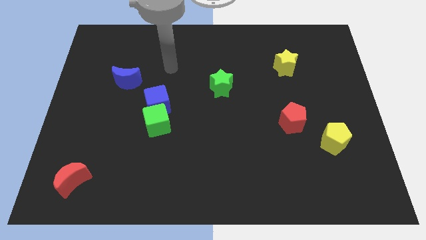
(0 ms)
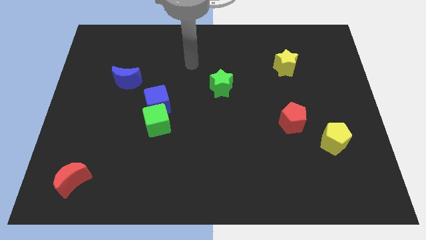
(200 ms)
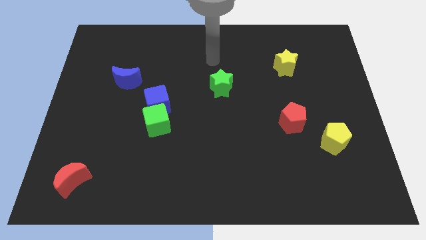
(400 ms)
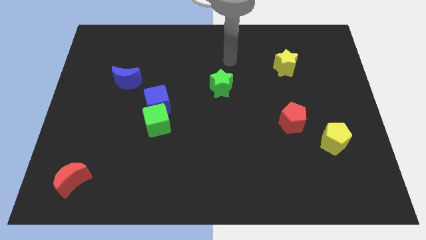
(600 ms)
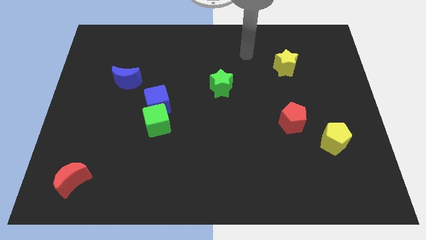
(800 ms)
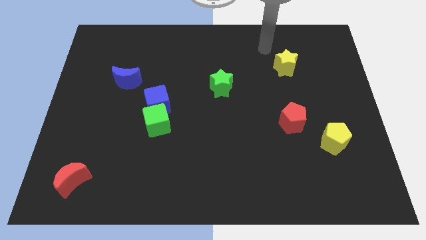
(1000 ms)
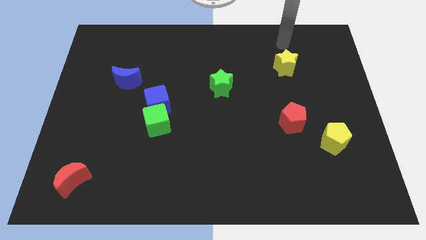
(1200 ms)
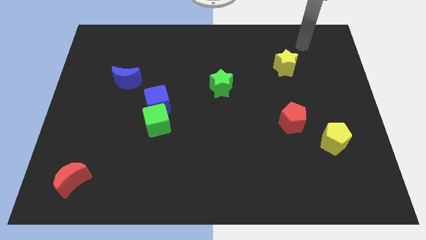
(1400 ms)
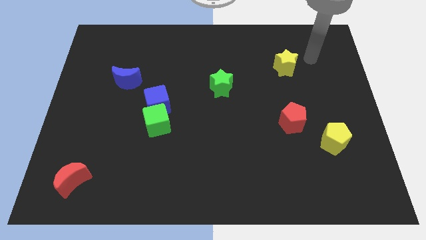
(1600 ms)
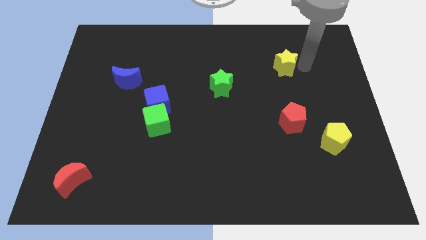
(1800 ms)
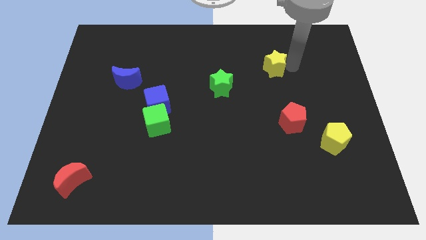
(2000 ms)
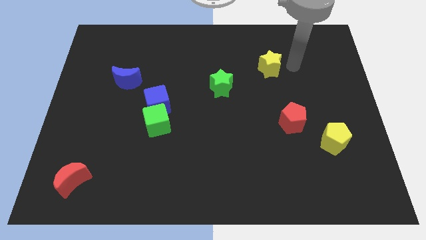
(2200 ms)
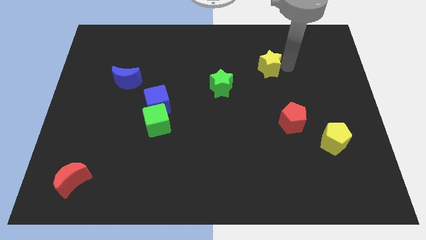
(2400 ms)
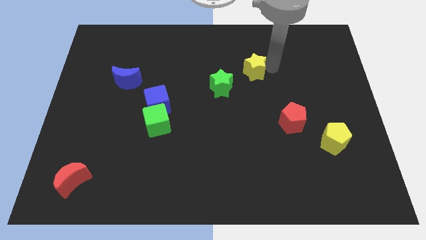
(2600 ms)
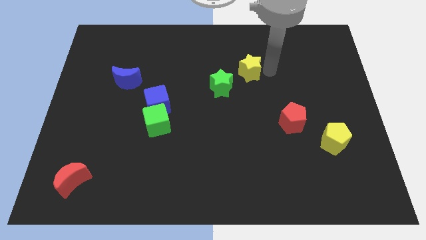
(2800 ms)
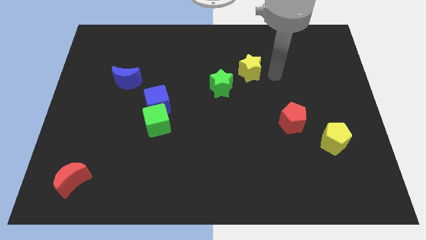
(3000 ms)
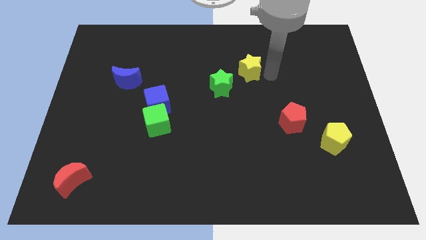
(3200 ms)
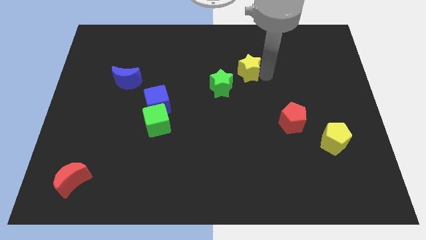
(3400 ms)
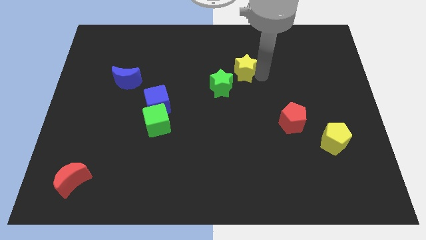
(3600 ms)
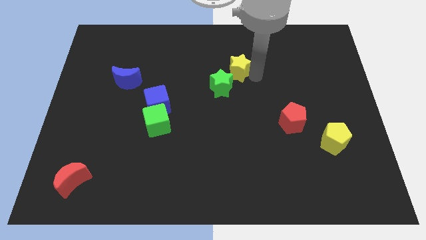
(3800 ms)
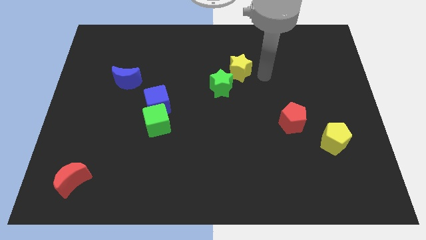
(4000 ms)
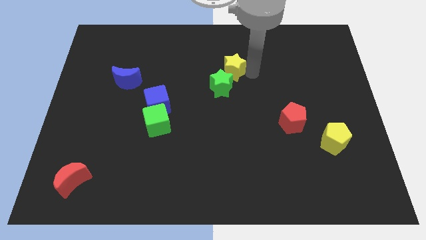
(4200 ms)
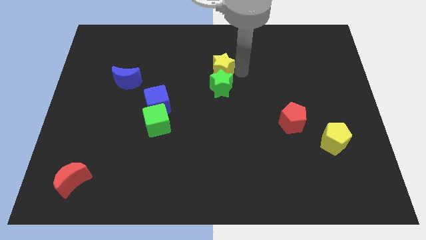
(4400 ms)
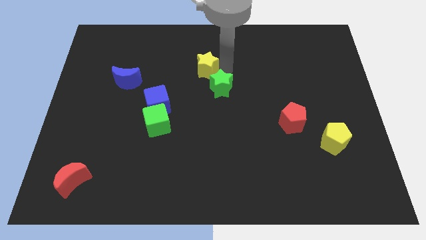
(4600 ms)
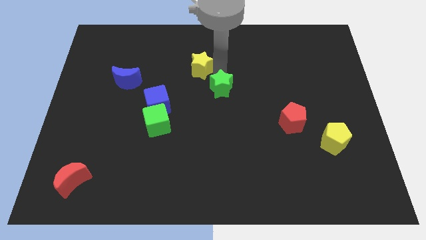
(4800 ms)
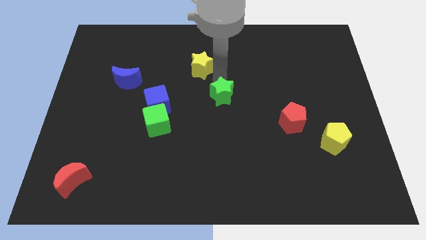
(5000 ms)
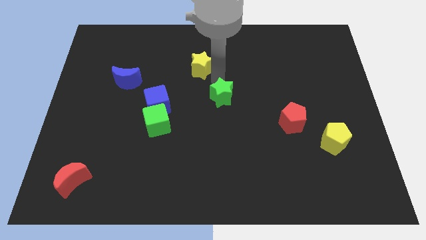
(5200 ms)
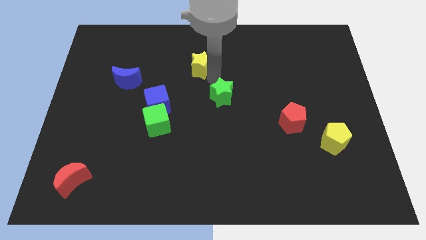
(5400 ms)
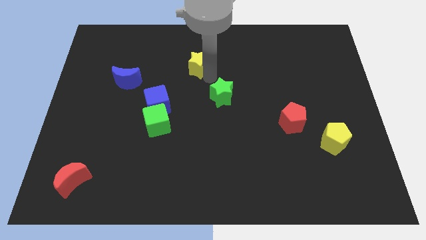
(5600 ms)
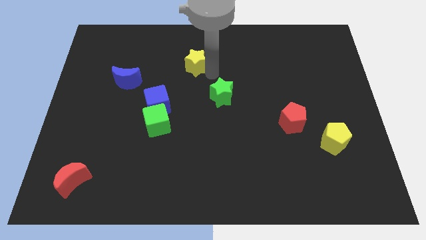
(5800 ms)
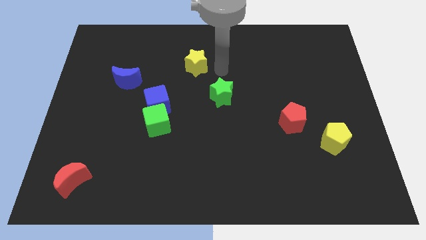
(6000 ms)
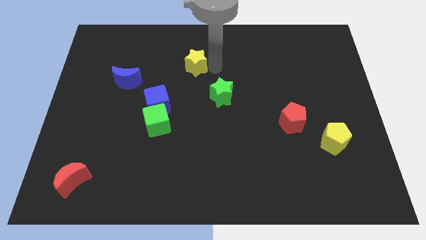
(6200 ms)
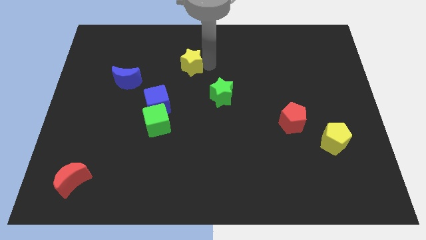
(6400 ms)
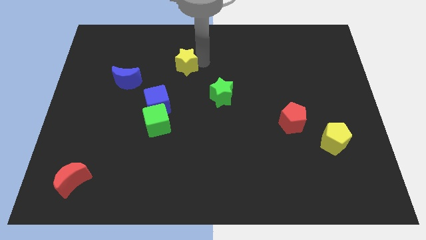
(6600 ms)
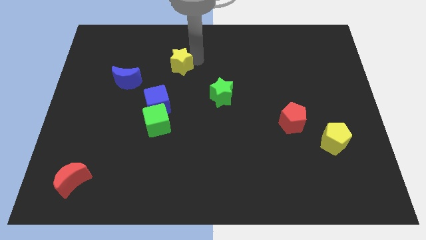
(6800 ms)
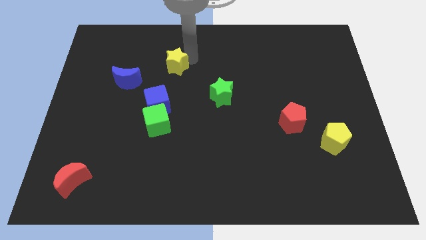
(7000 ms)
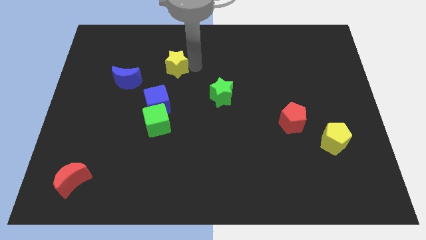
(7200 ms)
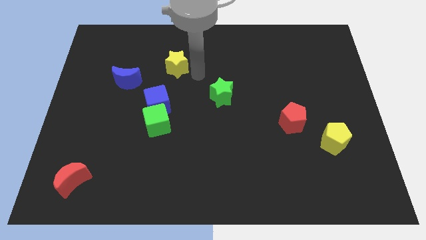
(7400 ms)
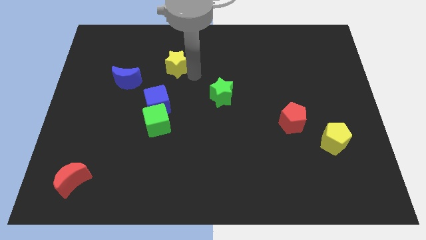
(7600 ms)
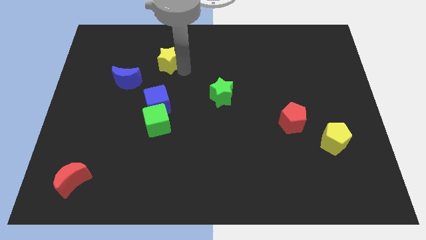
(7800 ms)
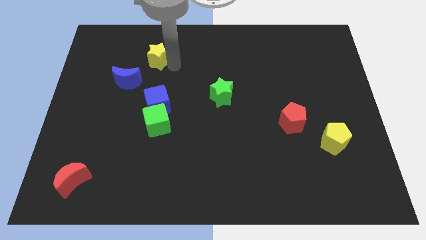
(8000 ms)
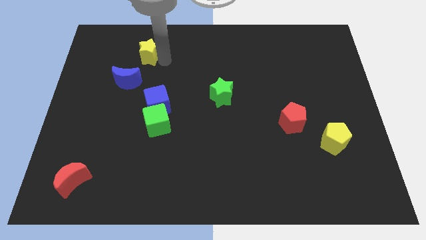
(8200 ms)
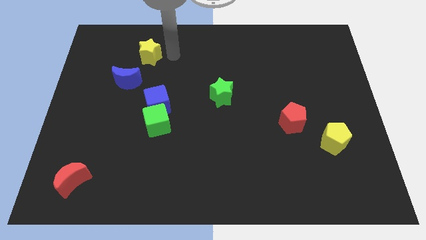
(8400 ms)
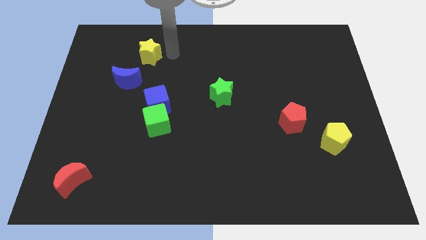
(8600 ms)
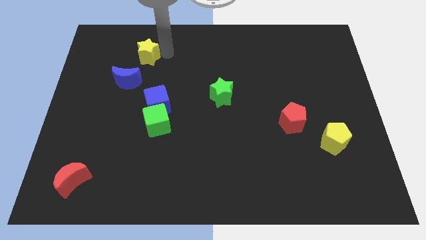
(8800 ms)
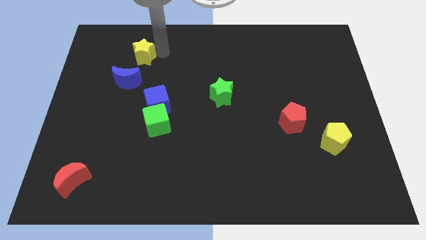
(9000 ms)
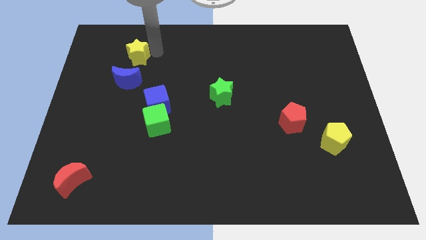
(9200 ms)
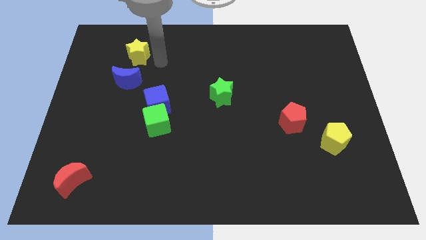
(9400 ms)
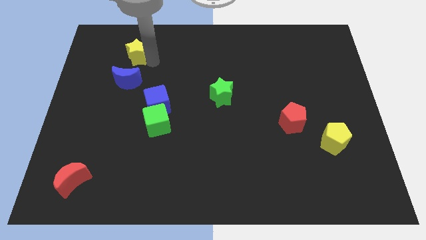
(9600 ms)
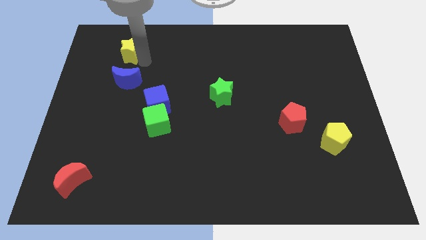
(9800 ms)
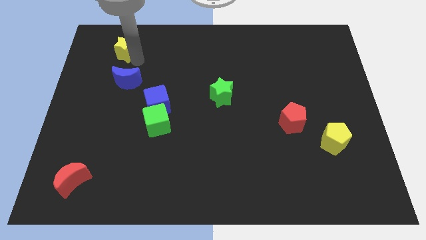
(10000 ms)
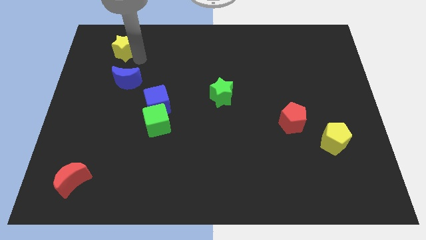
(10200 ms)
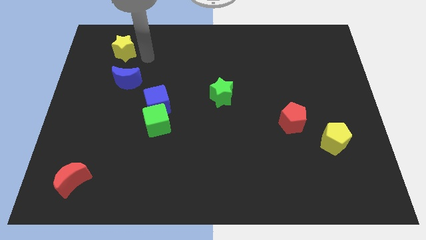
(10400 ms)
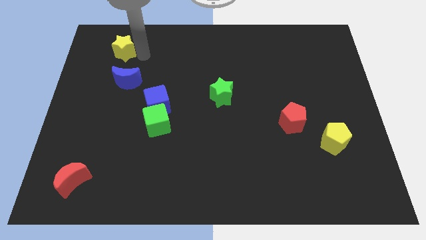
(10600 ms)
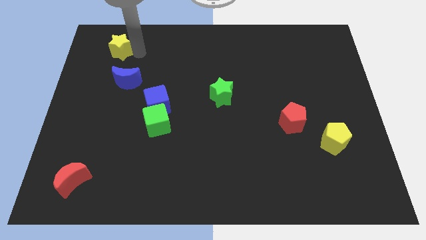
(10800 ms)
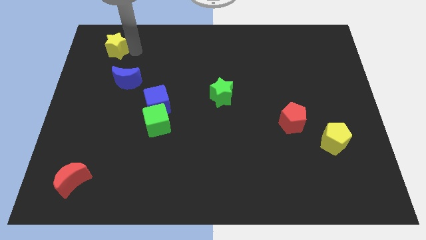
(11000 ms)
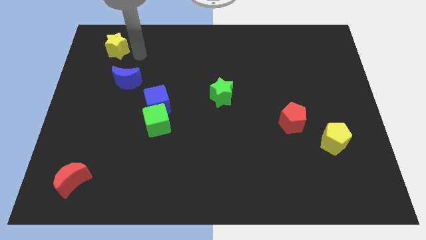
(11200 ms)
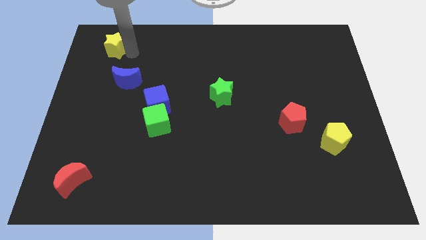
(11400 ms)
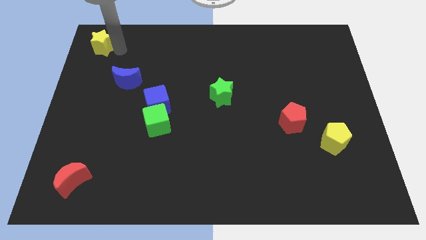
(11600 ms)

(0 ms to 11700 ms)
move the yellow star to the top left

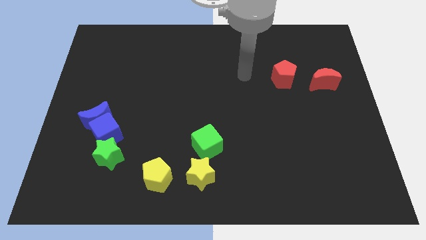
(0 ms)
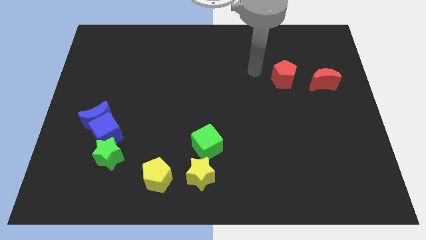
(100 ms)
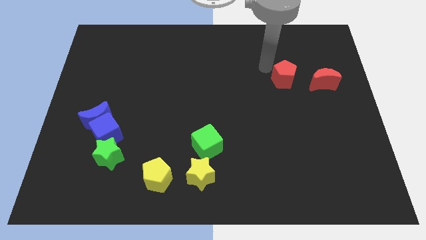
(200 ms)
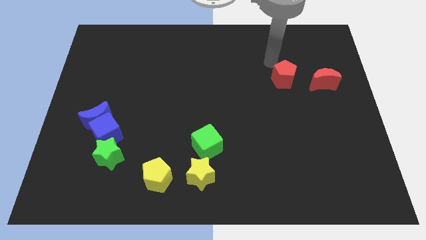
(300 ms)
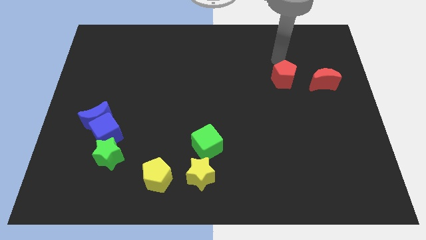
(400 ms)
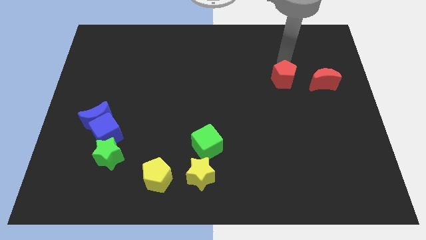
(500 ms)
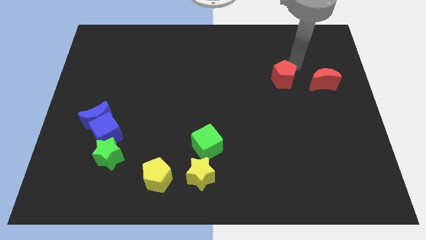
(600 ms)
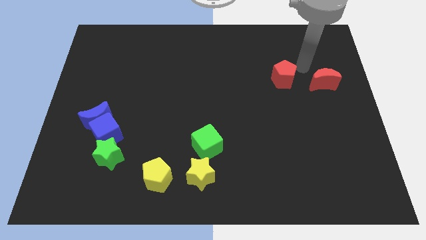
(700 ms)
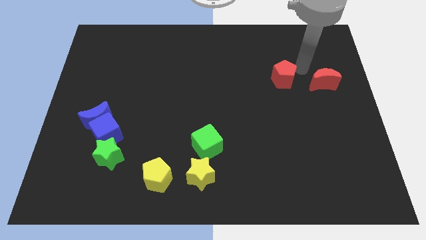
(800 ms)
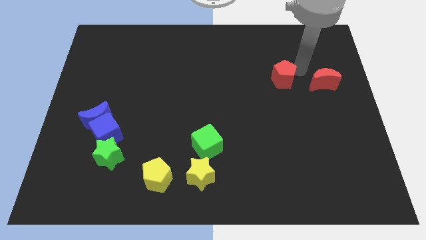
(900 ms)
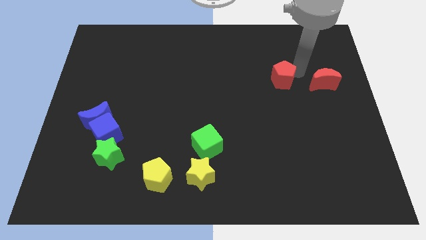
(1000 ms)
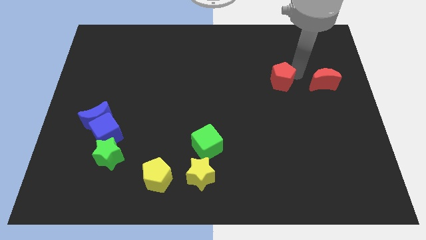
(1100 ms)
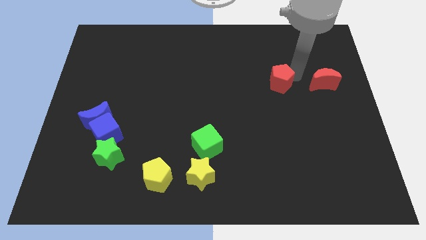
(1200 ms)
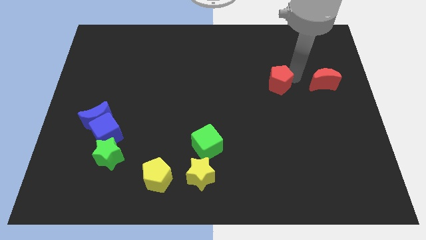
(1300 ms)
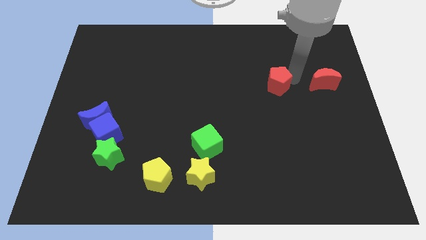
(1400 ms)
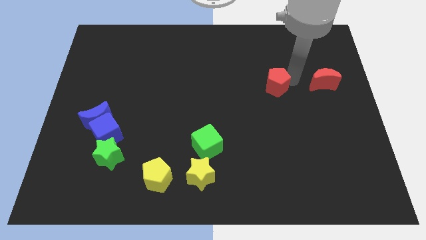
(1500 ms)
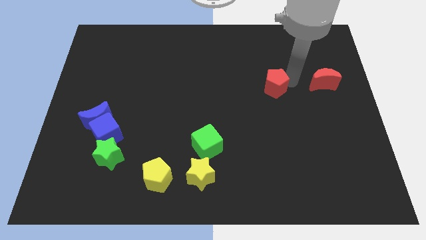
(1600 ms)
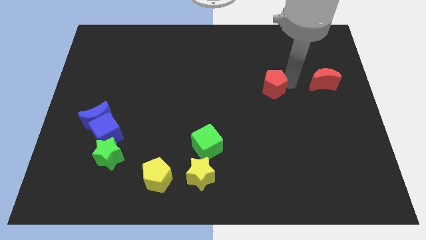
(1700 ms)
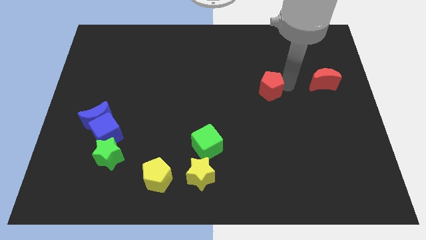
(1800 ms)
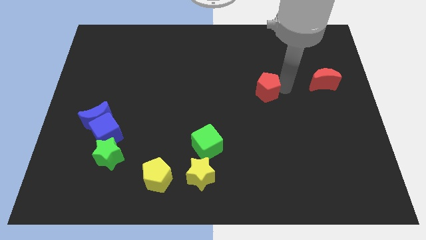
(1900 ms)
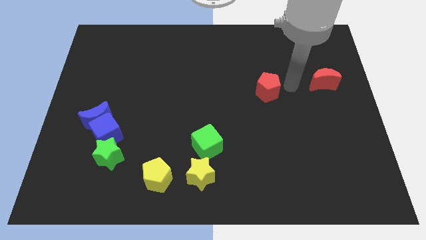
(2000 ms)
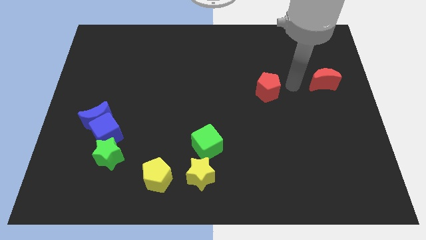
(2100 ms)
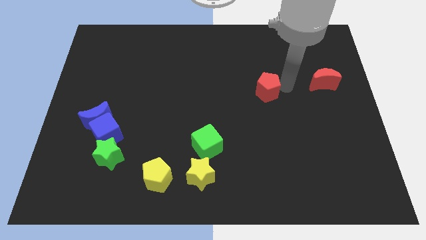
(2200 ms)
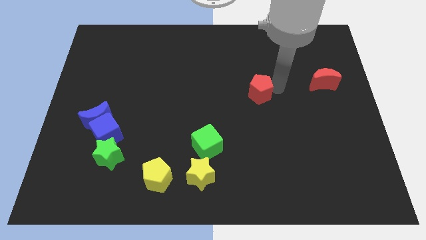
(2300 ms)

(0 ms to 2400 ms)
push the red pentagon to the center
